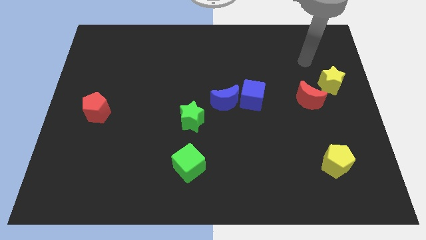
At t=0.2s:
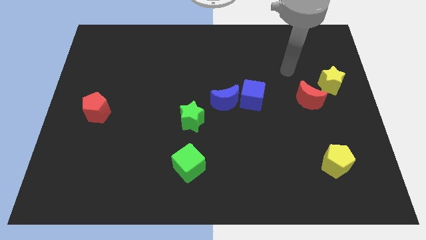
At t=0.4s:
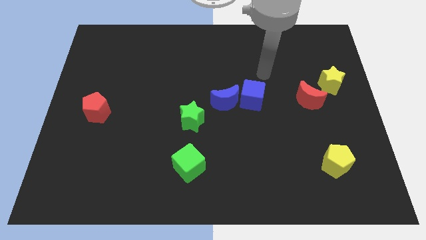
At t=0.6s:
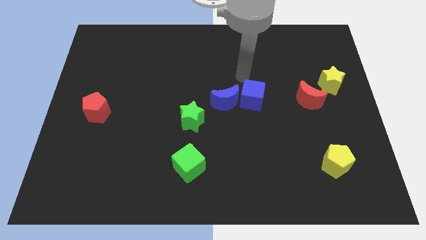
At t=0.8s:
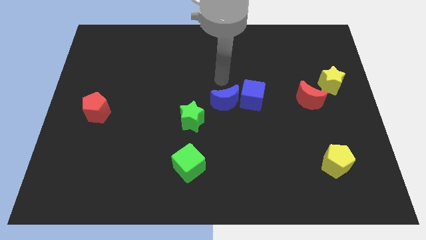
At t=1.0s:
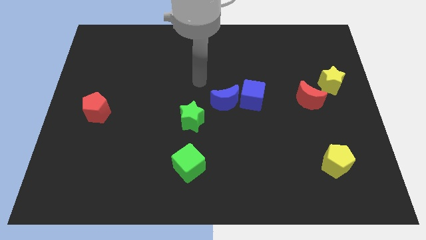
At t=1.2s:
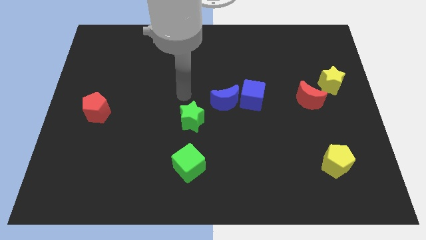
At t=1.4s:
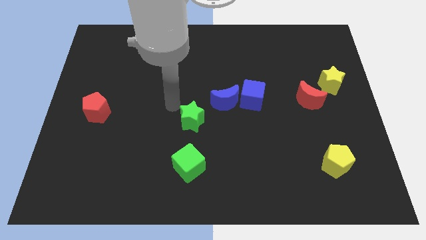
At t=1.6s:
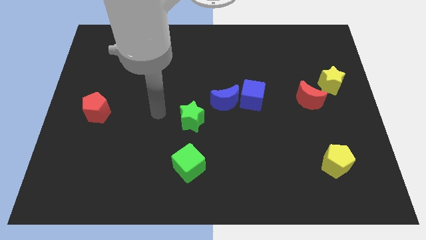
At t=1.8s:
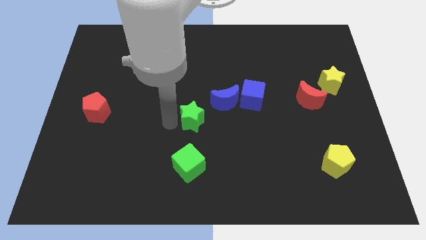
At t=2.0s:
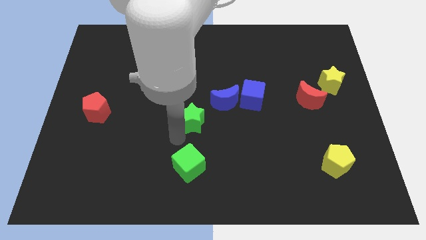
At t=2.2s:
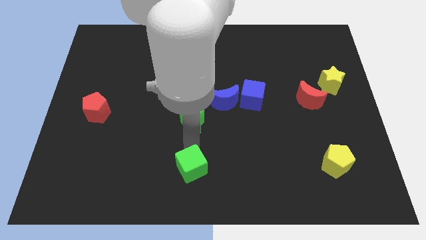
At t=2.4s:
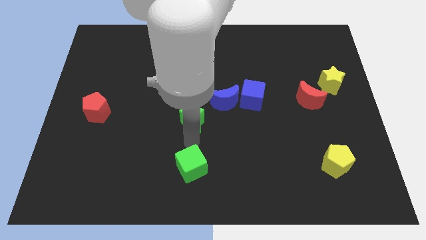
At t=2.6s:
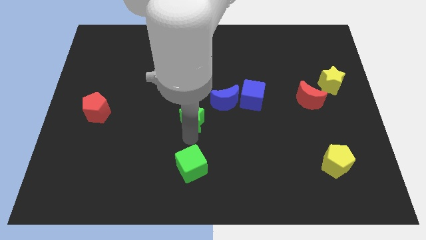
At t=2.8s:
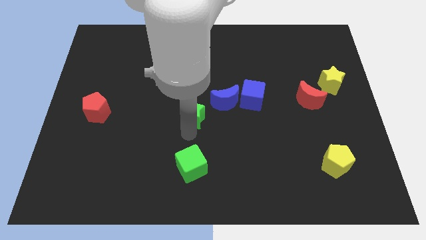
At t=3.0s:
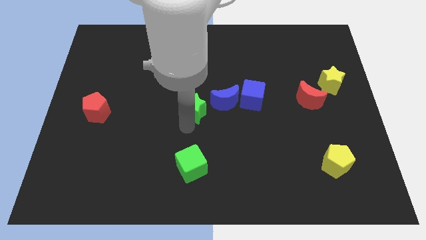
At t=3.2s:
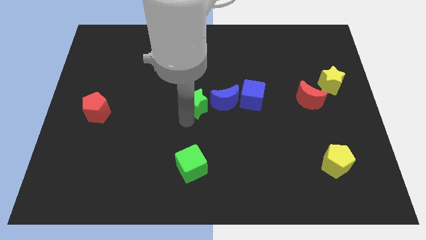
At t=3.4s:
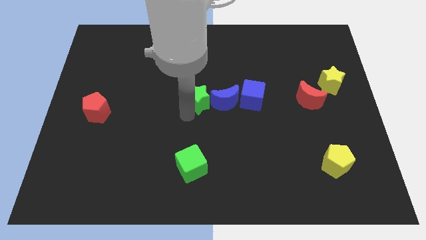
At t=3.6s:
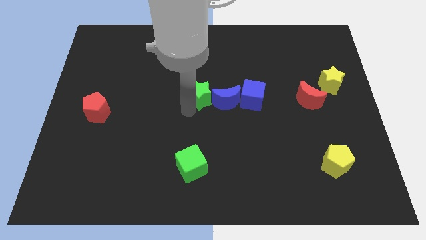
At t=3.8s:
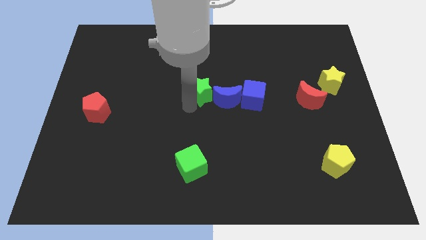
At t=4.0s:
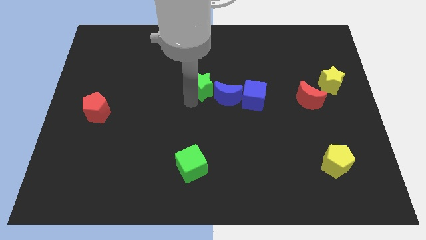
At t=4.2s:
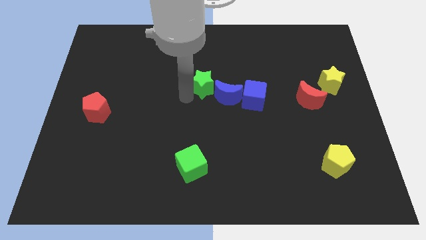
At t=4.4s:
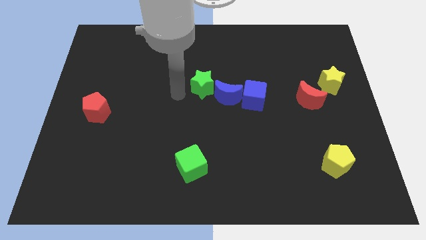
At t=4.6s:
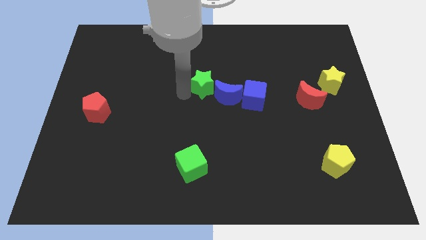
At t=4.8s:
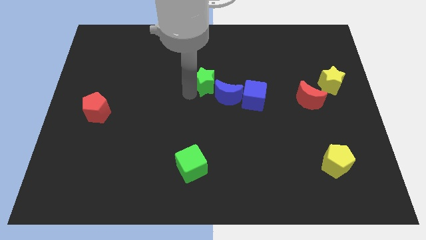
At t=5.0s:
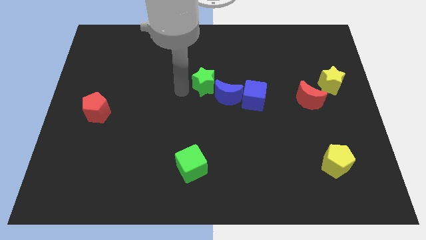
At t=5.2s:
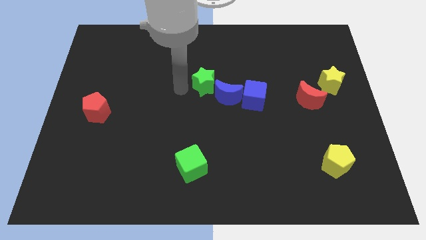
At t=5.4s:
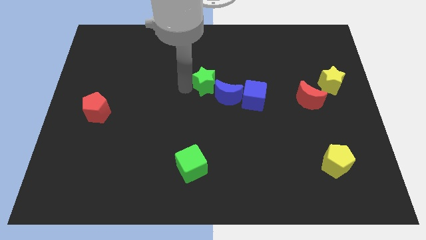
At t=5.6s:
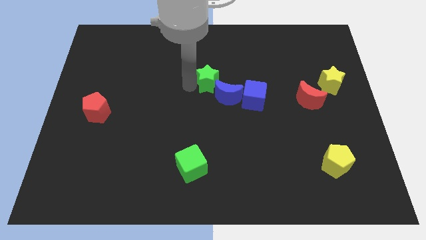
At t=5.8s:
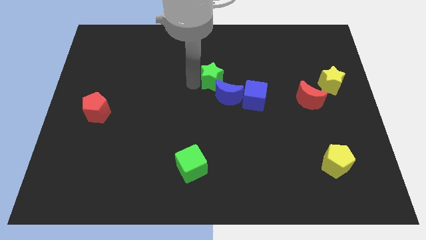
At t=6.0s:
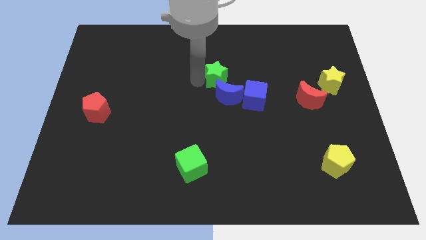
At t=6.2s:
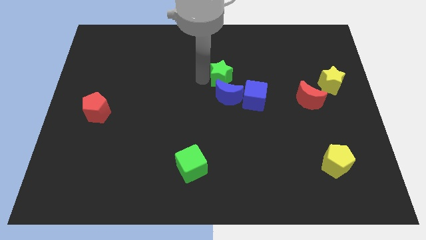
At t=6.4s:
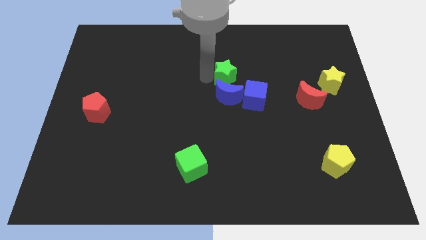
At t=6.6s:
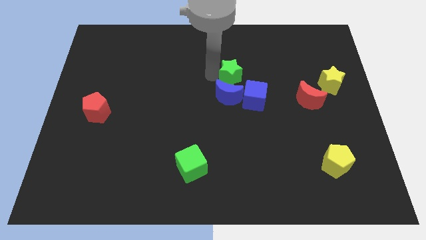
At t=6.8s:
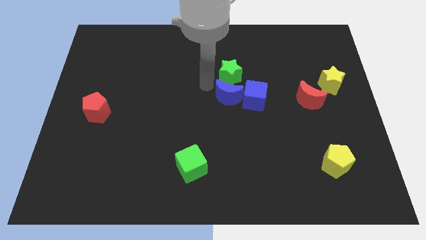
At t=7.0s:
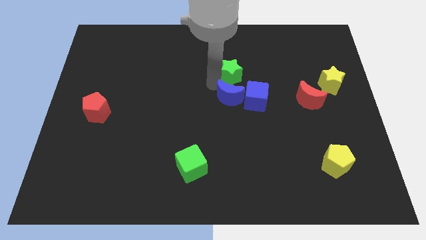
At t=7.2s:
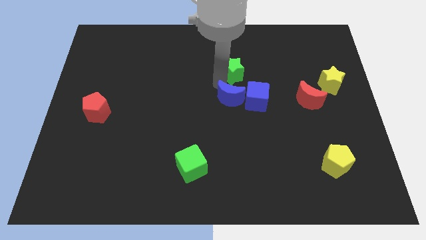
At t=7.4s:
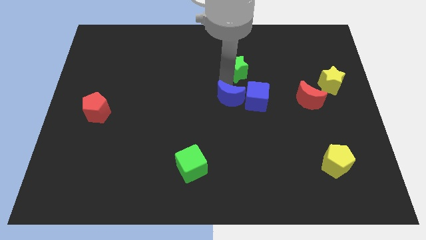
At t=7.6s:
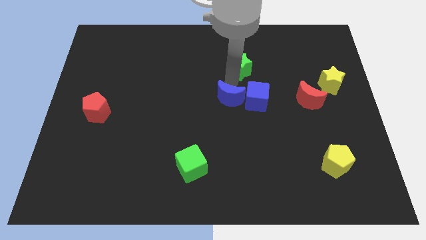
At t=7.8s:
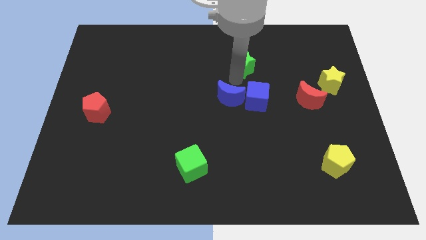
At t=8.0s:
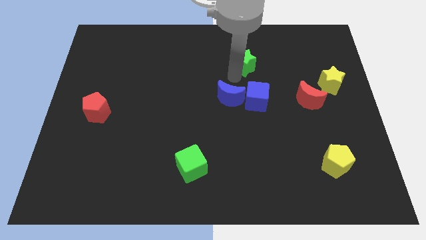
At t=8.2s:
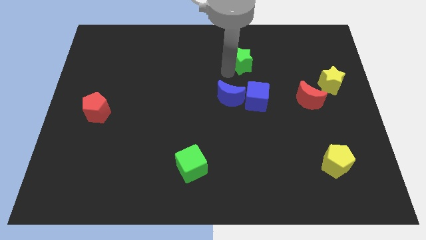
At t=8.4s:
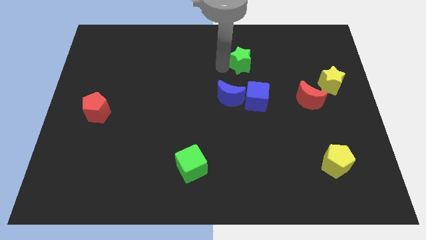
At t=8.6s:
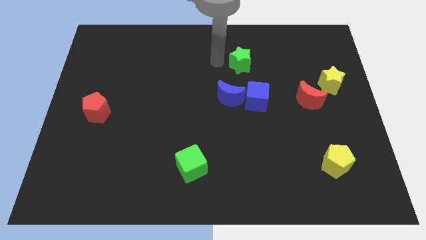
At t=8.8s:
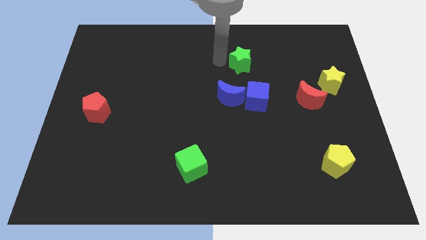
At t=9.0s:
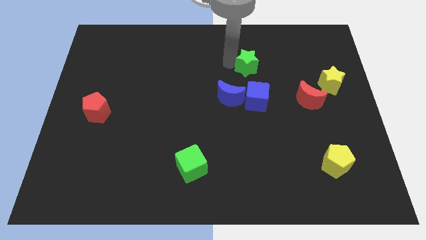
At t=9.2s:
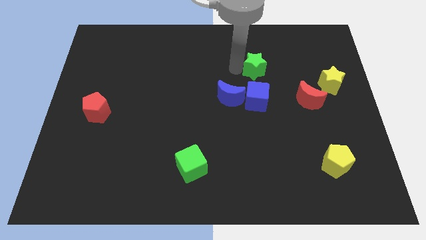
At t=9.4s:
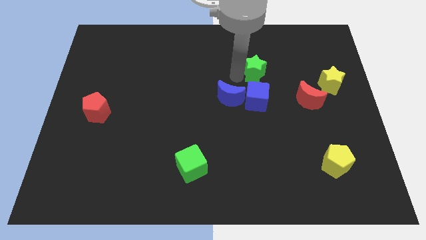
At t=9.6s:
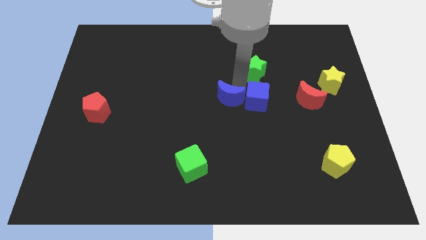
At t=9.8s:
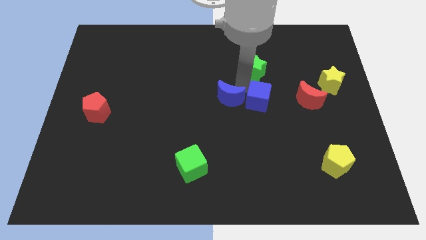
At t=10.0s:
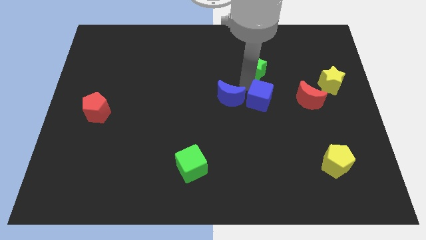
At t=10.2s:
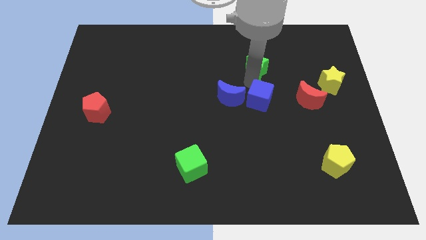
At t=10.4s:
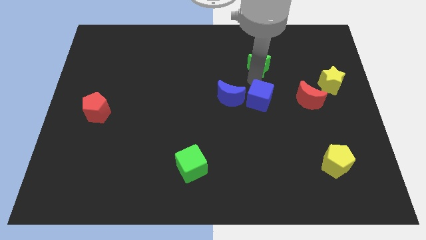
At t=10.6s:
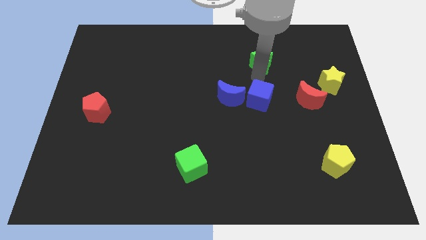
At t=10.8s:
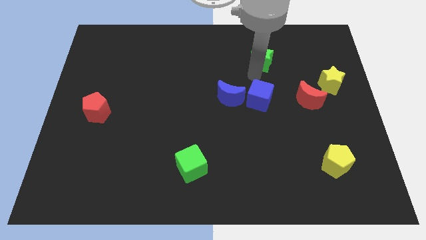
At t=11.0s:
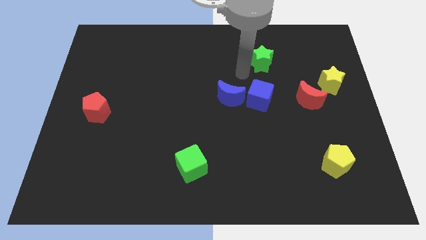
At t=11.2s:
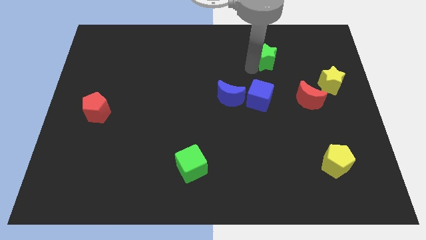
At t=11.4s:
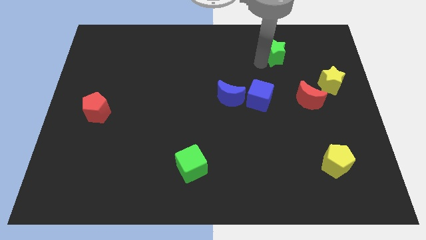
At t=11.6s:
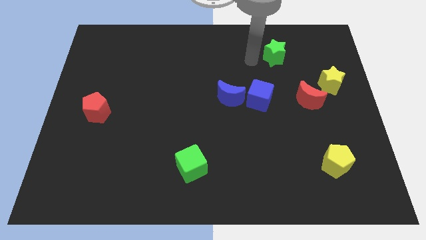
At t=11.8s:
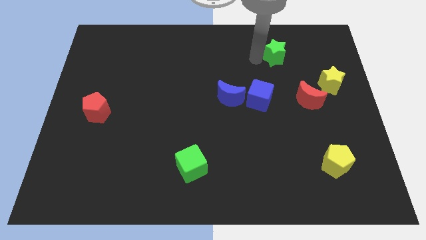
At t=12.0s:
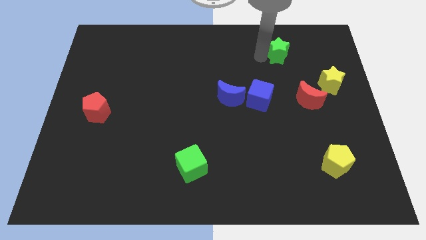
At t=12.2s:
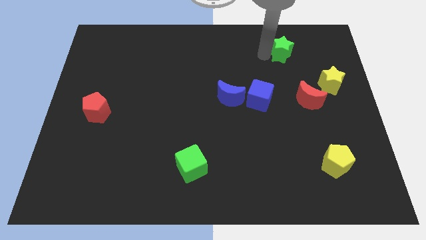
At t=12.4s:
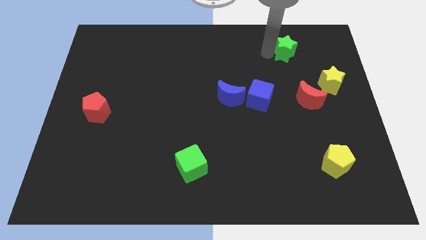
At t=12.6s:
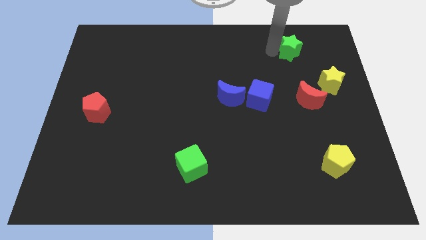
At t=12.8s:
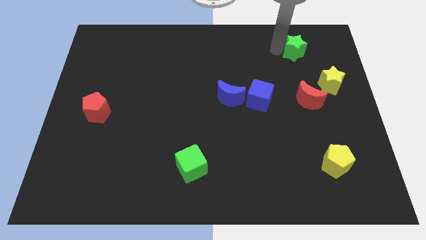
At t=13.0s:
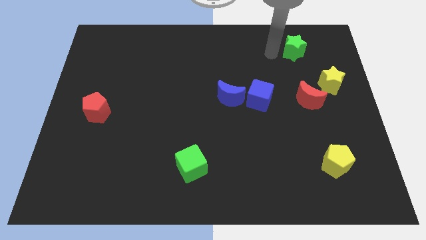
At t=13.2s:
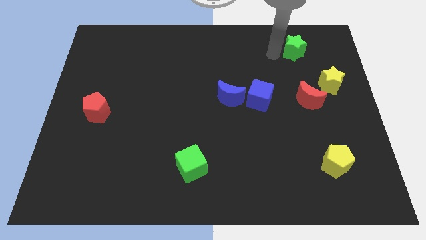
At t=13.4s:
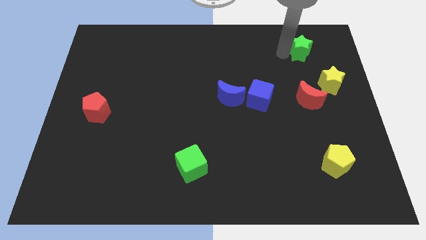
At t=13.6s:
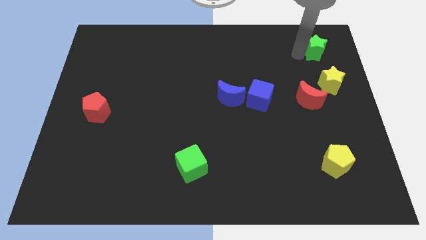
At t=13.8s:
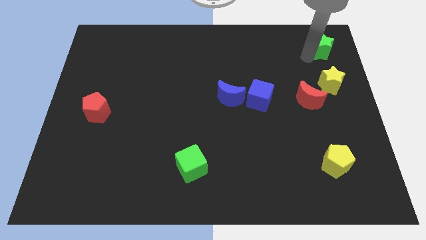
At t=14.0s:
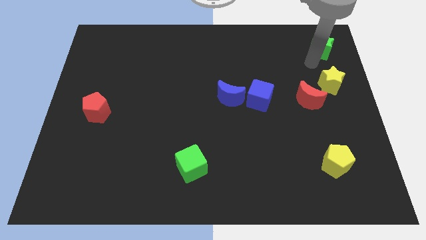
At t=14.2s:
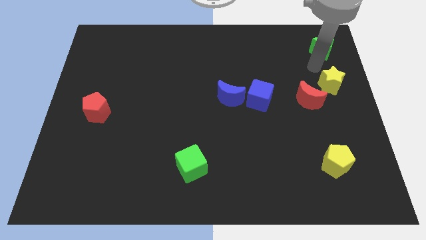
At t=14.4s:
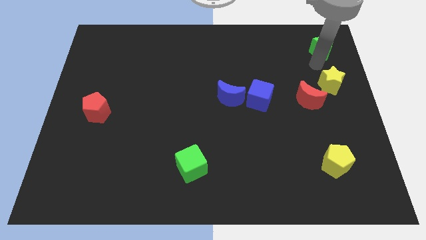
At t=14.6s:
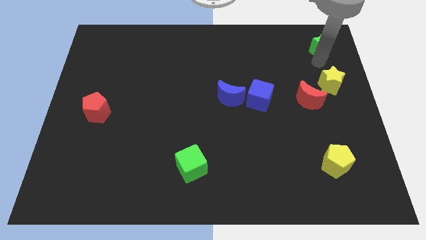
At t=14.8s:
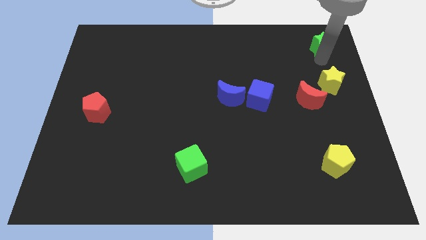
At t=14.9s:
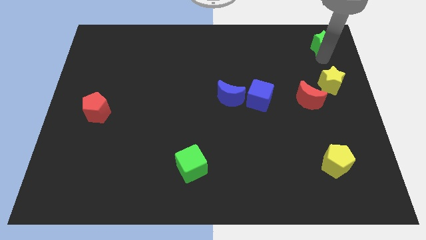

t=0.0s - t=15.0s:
put the green star to the top right corner
